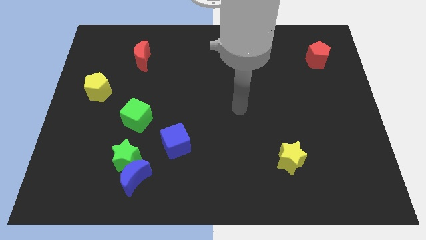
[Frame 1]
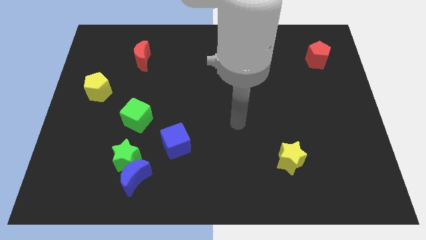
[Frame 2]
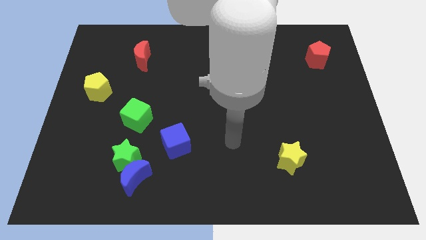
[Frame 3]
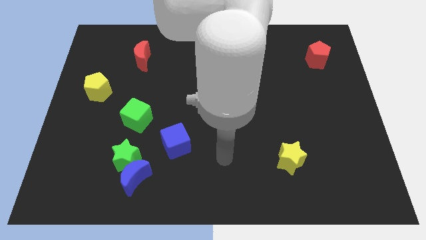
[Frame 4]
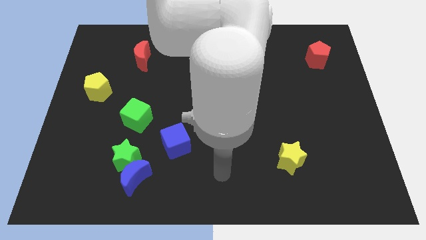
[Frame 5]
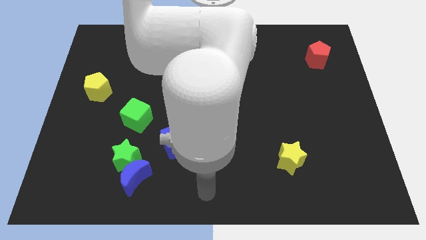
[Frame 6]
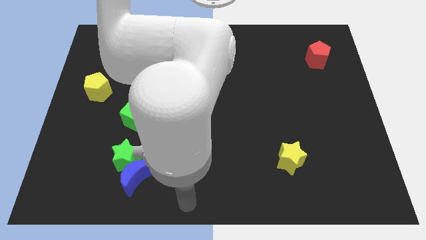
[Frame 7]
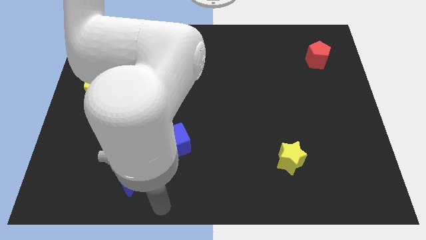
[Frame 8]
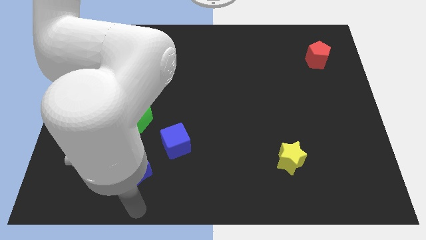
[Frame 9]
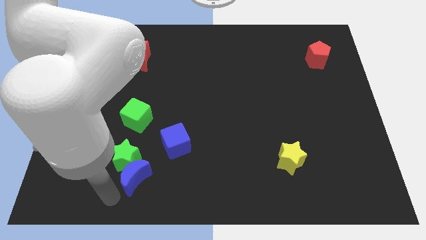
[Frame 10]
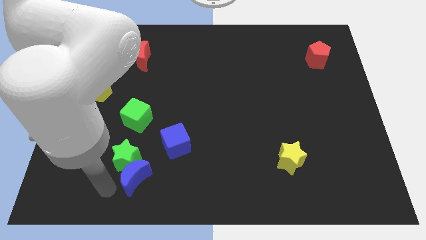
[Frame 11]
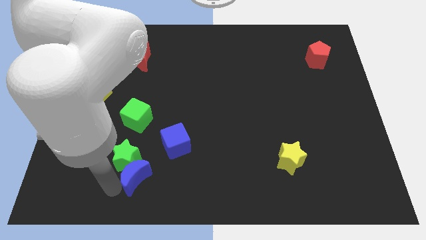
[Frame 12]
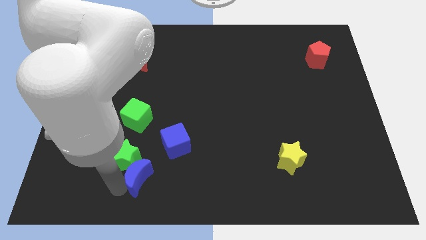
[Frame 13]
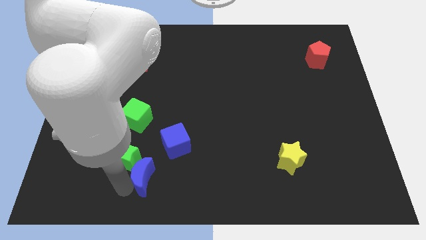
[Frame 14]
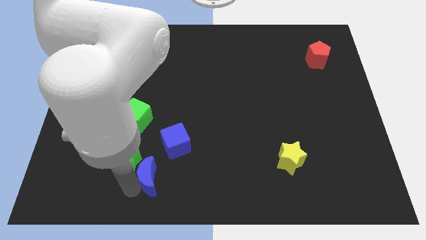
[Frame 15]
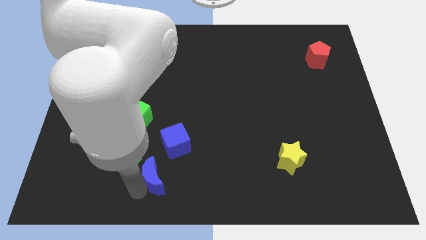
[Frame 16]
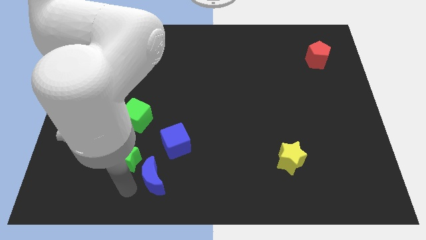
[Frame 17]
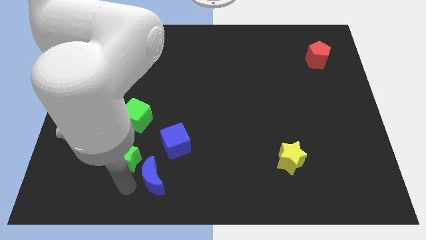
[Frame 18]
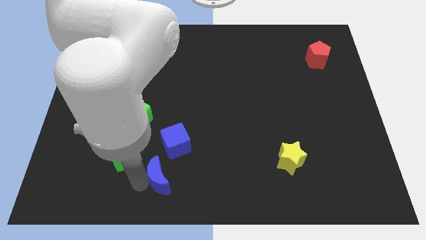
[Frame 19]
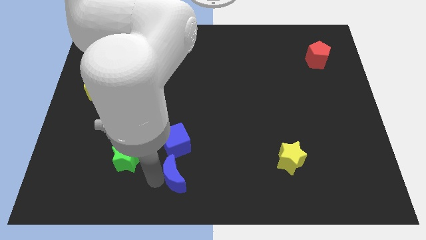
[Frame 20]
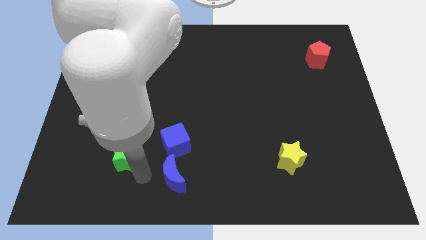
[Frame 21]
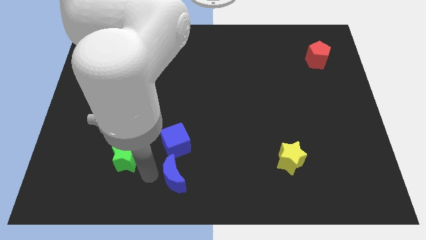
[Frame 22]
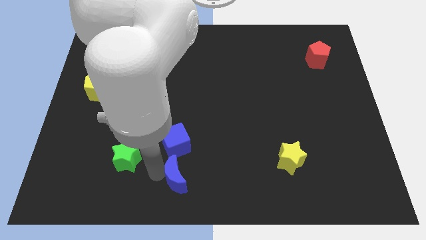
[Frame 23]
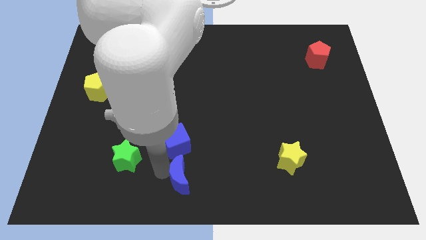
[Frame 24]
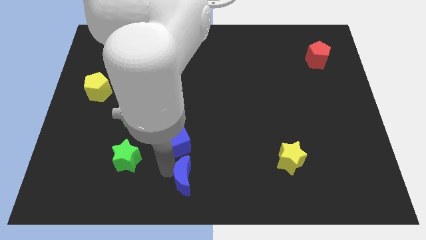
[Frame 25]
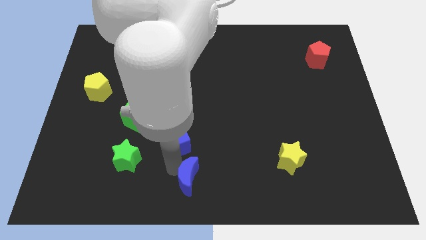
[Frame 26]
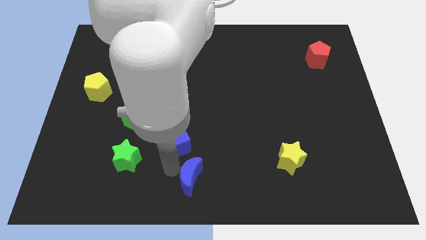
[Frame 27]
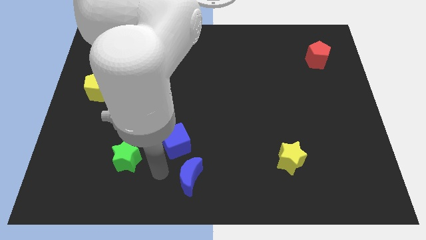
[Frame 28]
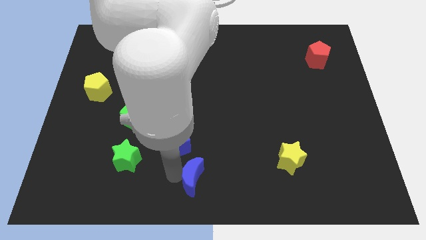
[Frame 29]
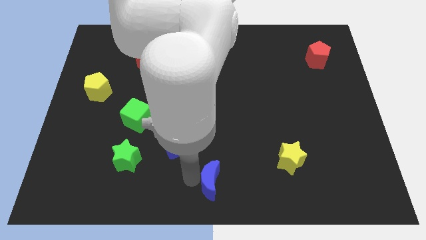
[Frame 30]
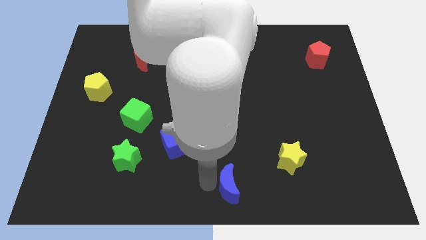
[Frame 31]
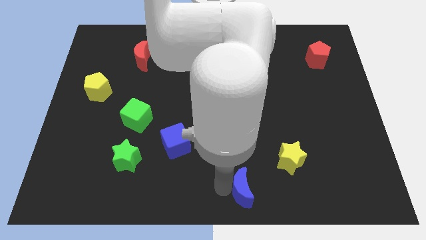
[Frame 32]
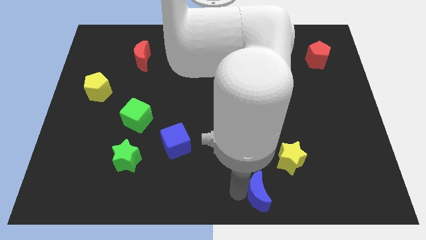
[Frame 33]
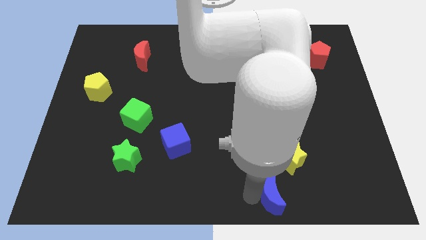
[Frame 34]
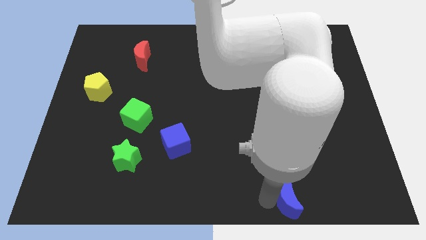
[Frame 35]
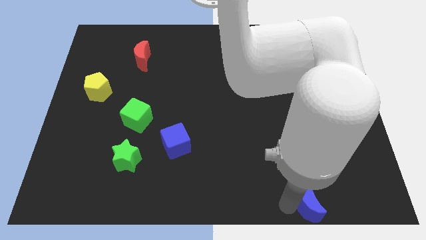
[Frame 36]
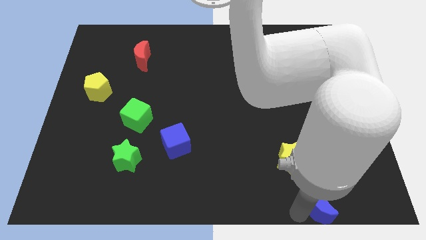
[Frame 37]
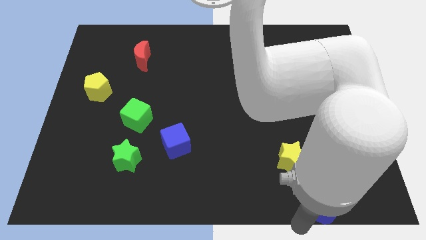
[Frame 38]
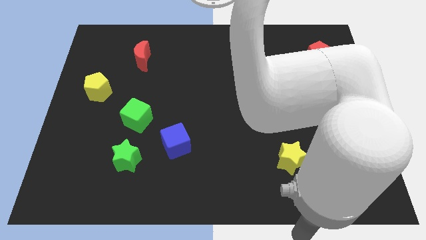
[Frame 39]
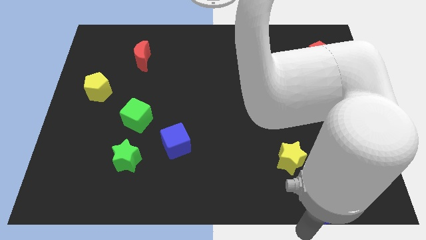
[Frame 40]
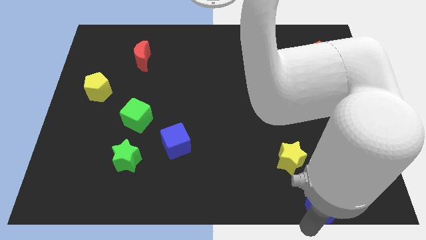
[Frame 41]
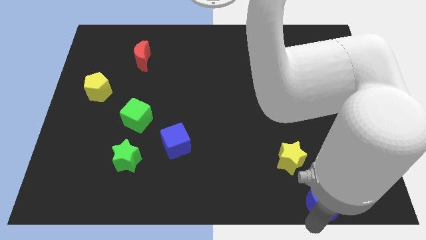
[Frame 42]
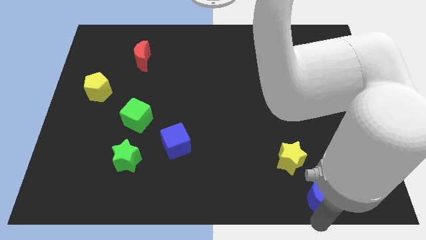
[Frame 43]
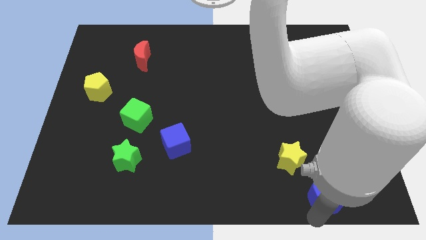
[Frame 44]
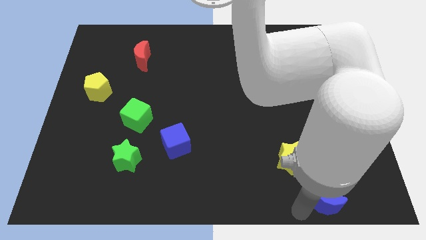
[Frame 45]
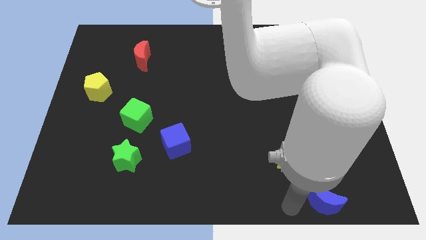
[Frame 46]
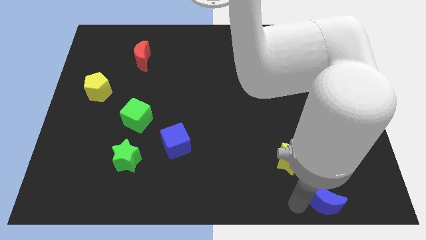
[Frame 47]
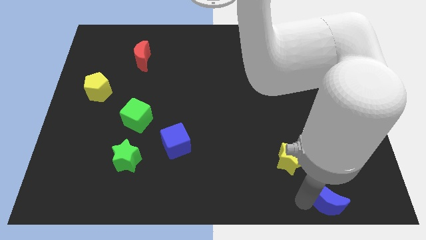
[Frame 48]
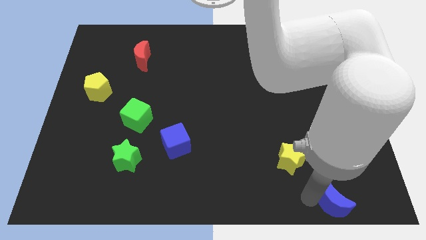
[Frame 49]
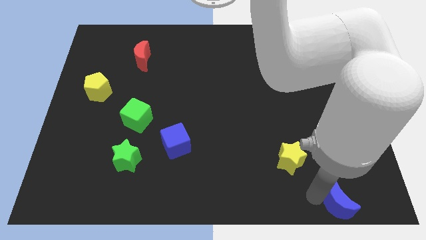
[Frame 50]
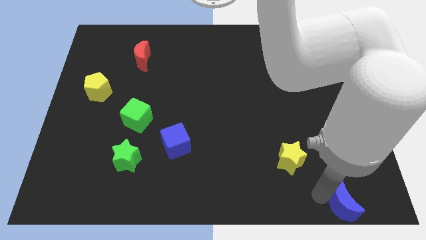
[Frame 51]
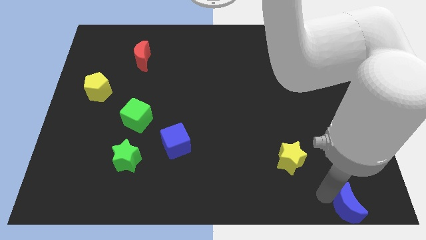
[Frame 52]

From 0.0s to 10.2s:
push the blue moon to the bottom right

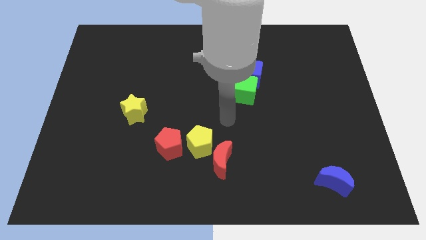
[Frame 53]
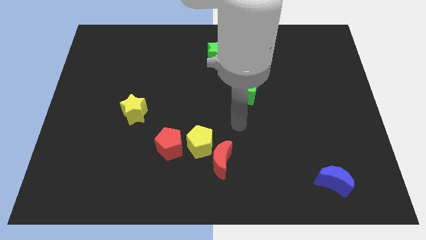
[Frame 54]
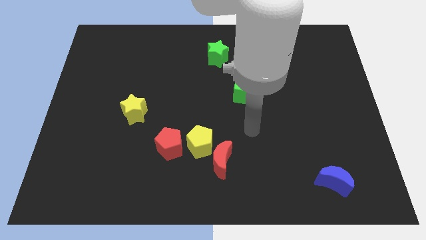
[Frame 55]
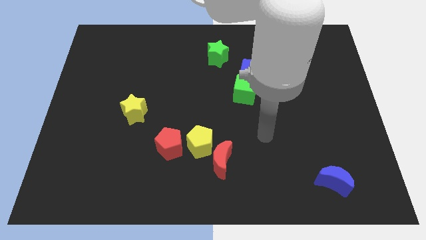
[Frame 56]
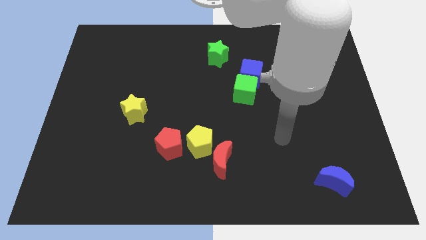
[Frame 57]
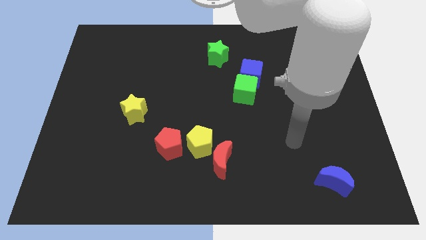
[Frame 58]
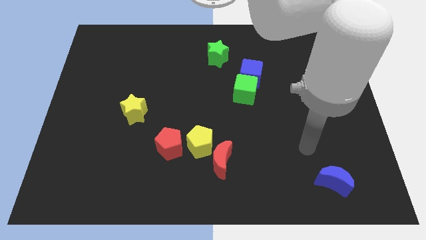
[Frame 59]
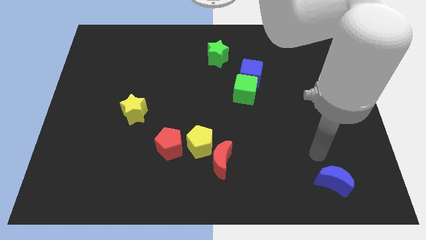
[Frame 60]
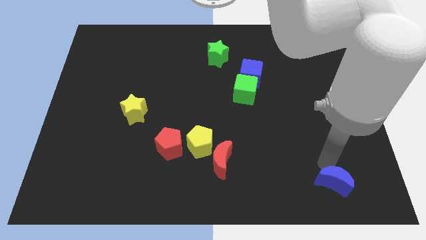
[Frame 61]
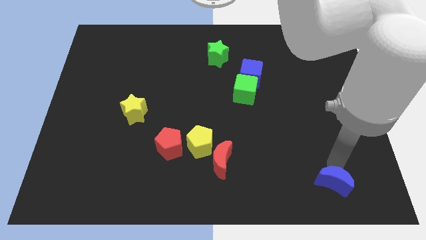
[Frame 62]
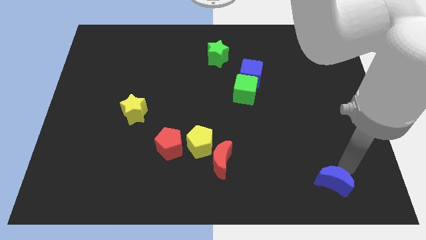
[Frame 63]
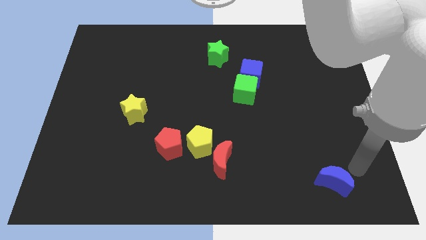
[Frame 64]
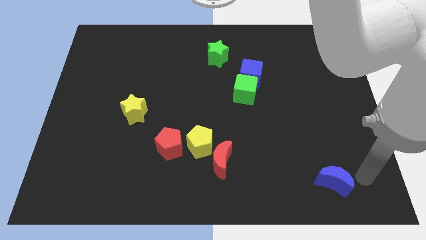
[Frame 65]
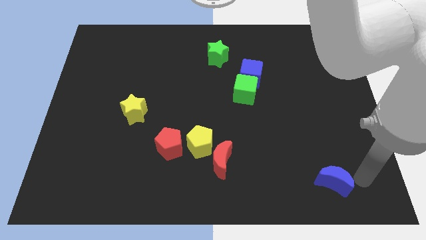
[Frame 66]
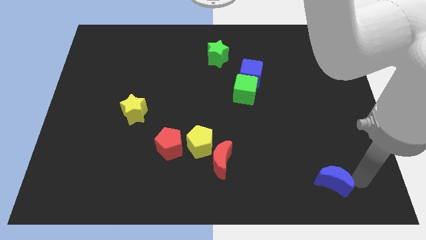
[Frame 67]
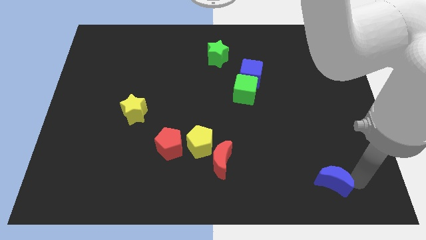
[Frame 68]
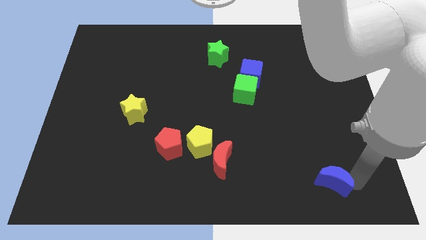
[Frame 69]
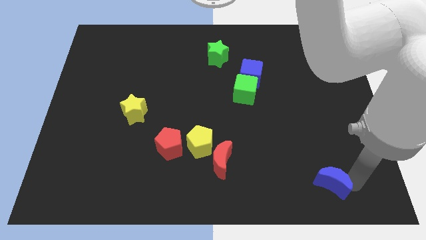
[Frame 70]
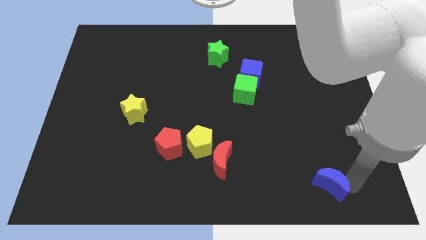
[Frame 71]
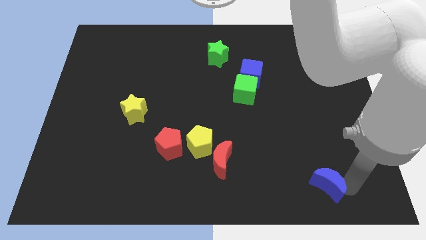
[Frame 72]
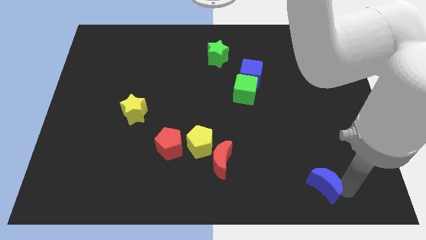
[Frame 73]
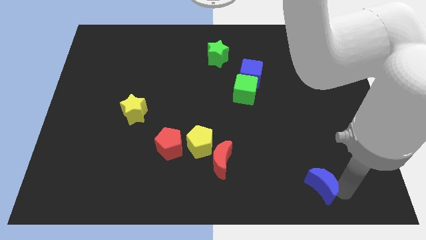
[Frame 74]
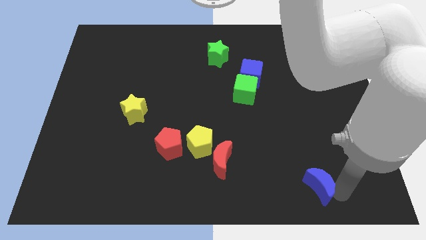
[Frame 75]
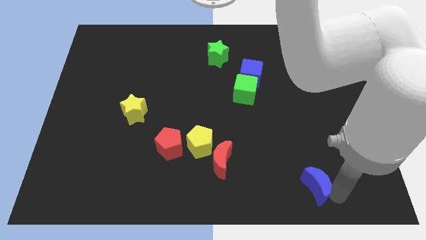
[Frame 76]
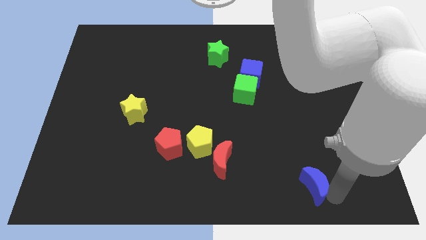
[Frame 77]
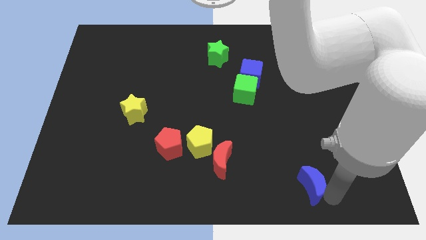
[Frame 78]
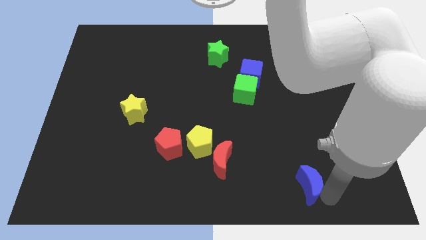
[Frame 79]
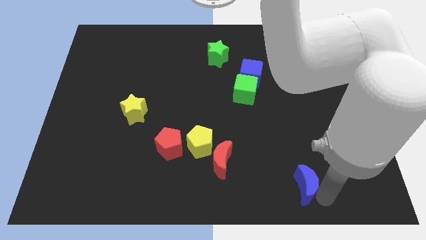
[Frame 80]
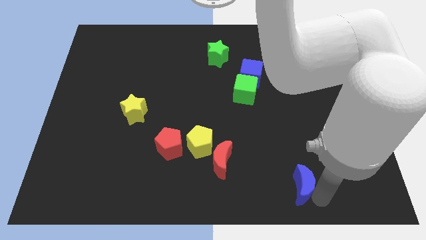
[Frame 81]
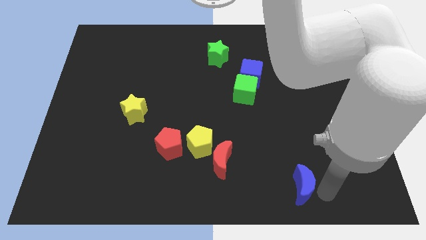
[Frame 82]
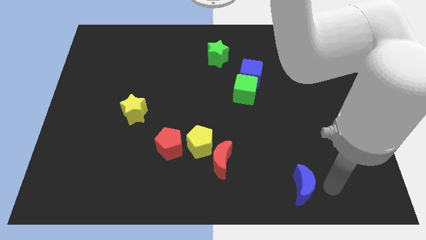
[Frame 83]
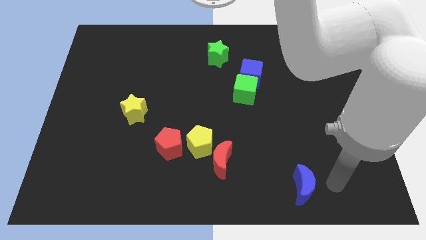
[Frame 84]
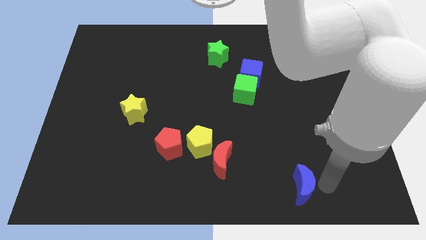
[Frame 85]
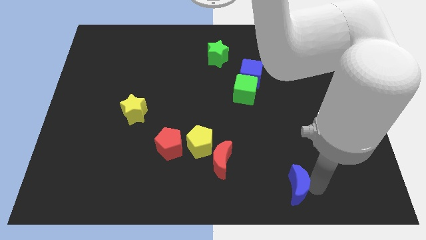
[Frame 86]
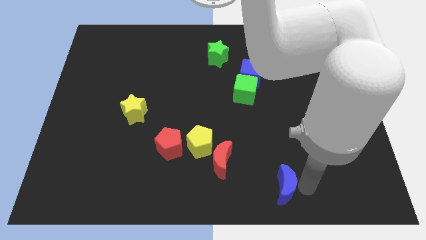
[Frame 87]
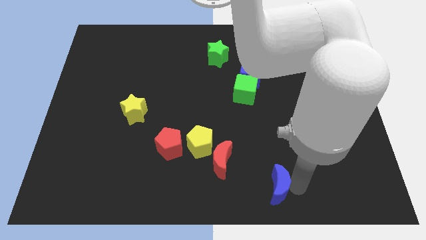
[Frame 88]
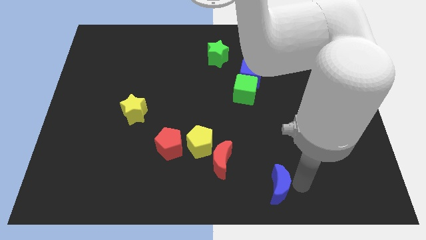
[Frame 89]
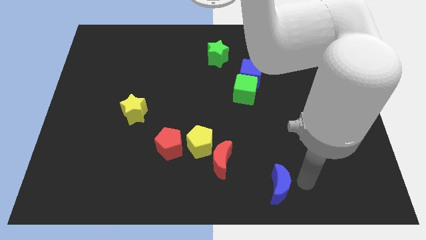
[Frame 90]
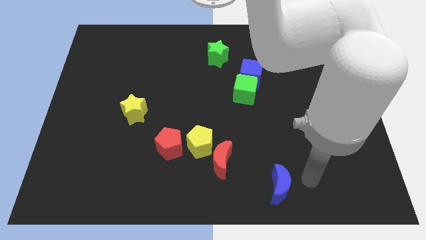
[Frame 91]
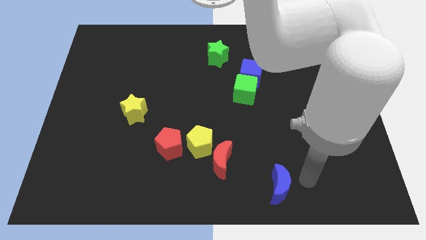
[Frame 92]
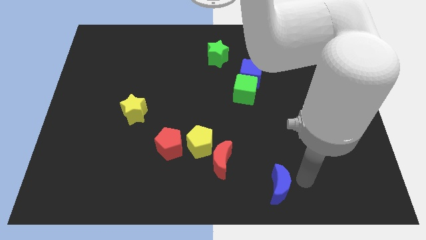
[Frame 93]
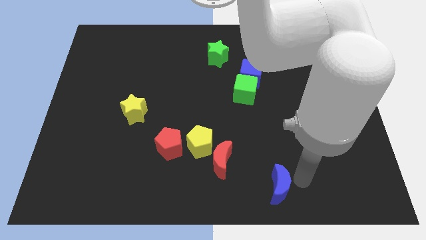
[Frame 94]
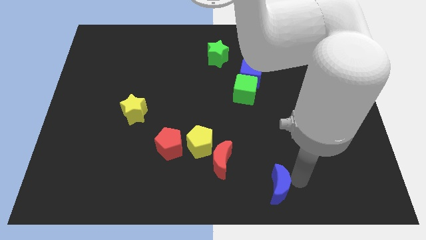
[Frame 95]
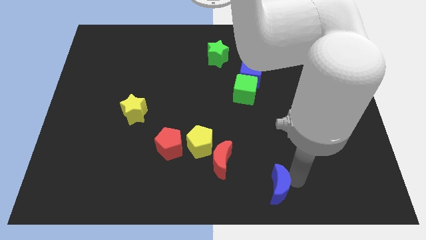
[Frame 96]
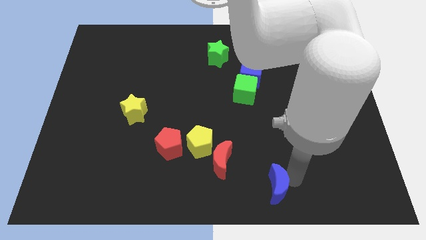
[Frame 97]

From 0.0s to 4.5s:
move the blue moon to the bottom side
